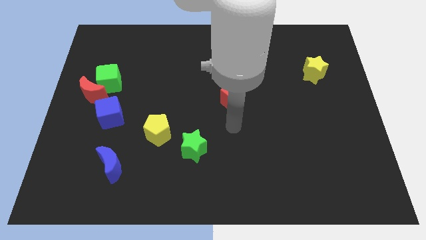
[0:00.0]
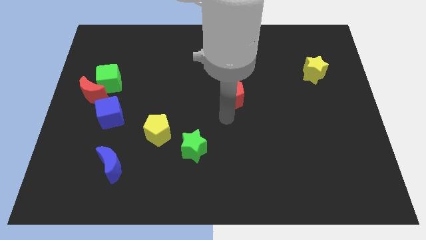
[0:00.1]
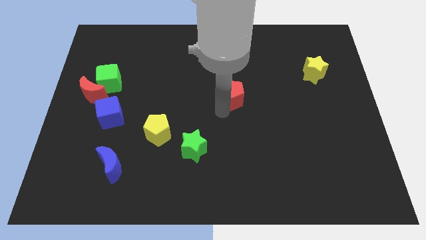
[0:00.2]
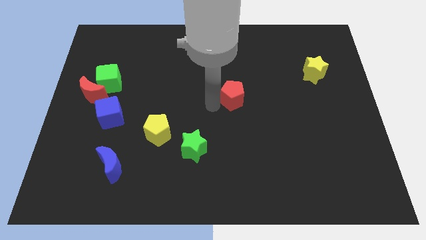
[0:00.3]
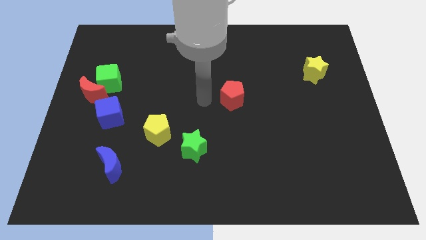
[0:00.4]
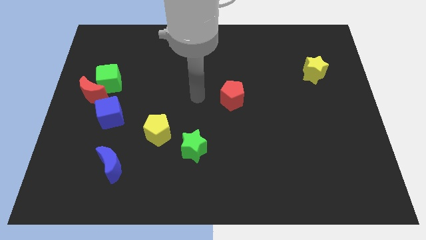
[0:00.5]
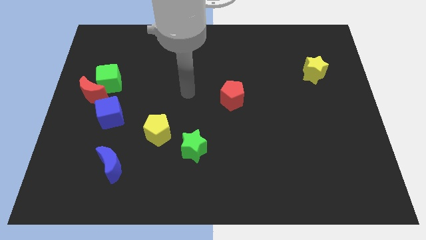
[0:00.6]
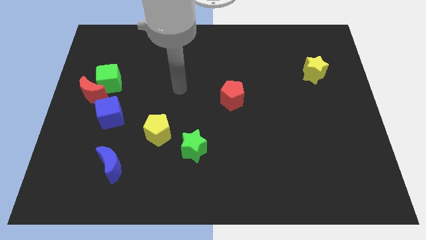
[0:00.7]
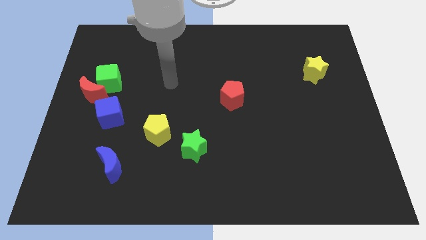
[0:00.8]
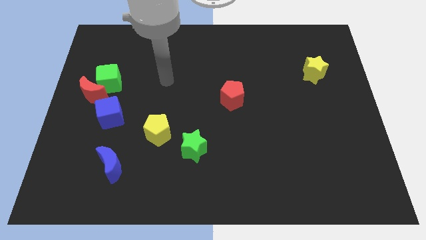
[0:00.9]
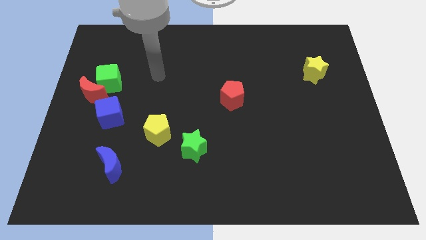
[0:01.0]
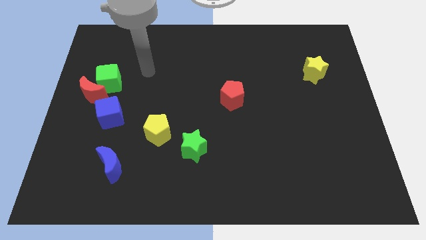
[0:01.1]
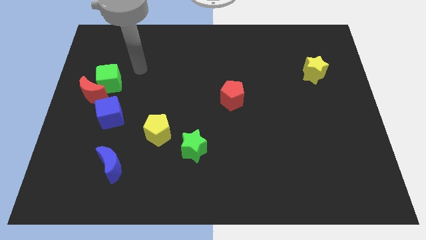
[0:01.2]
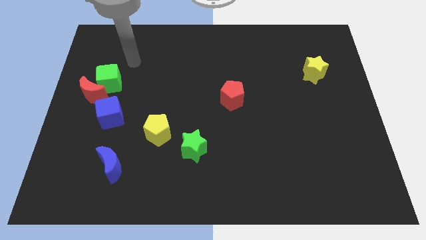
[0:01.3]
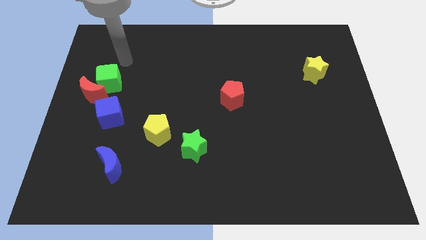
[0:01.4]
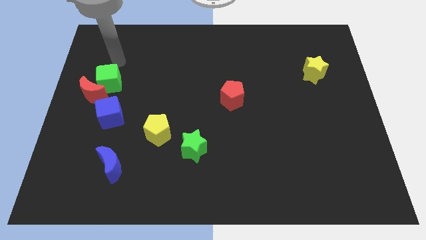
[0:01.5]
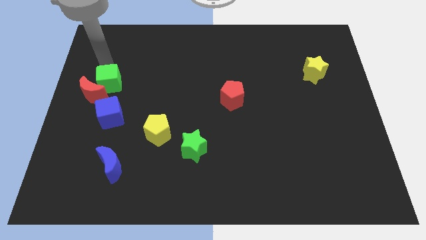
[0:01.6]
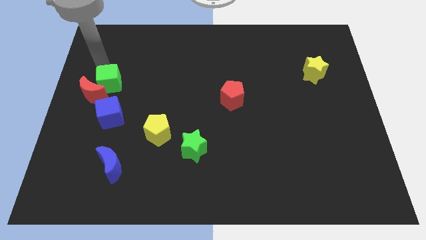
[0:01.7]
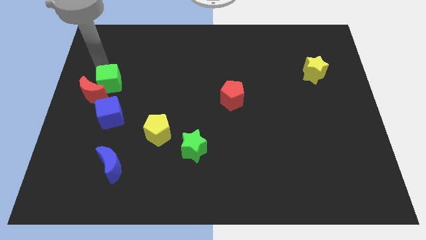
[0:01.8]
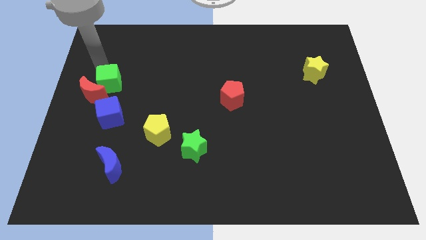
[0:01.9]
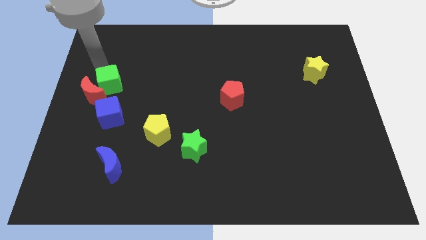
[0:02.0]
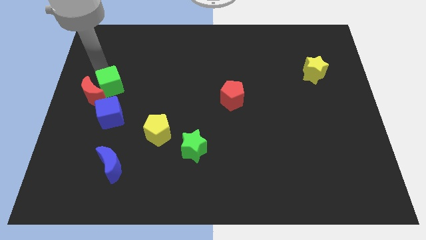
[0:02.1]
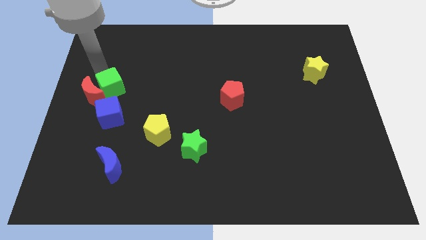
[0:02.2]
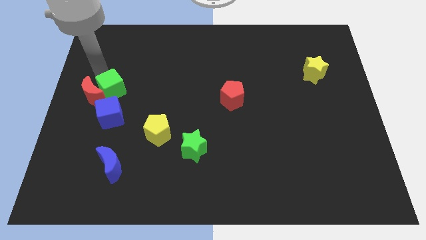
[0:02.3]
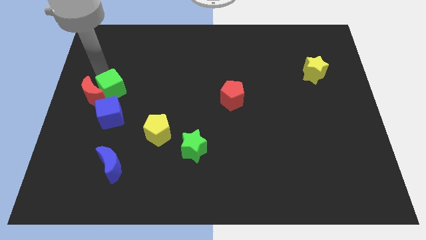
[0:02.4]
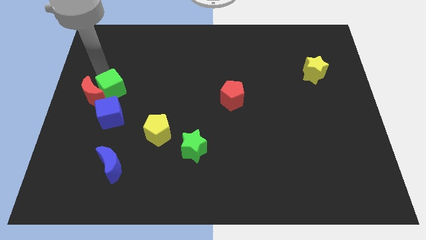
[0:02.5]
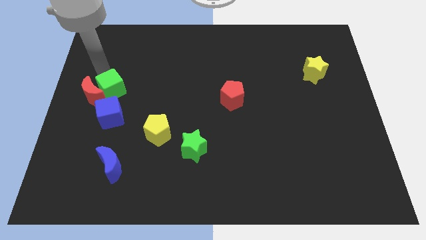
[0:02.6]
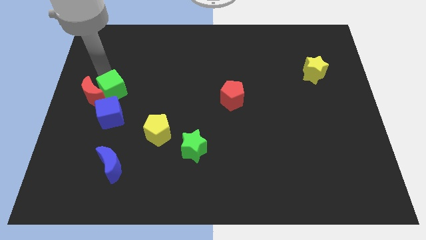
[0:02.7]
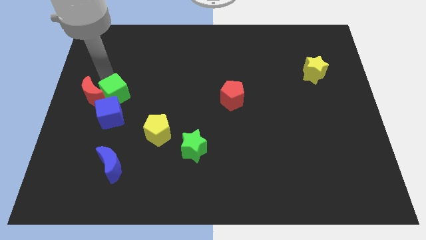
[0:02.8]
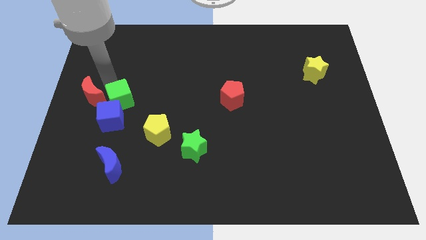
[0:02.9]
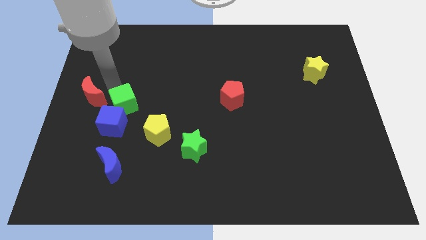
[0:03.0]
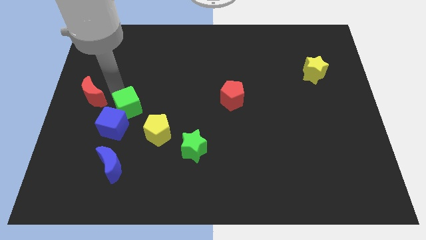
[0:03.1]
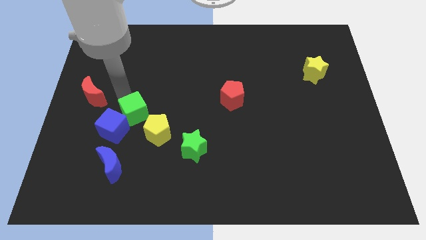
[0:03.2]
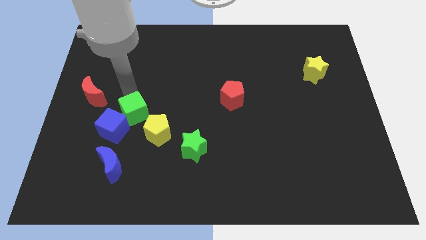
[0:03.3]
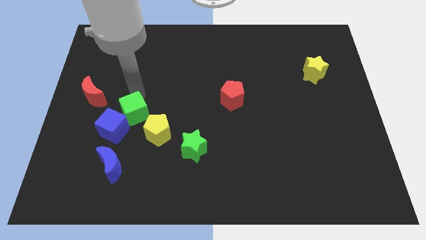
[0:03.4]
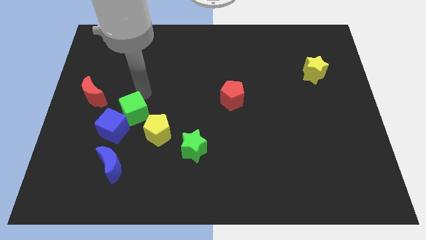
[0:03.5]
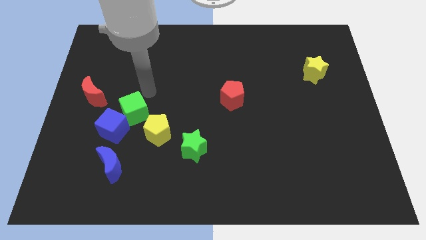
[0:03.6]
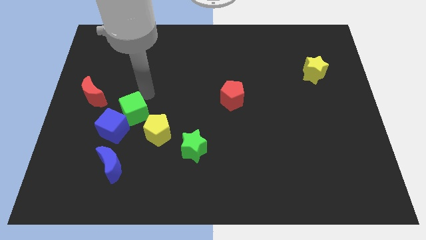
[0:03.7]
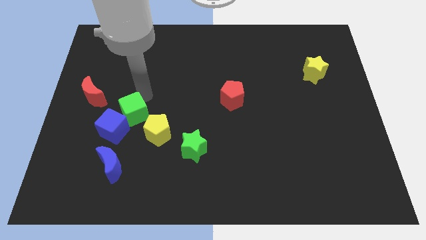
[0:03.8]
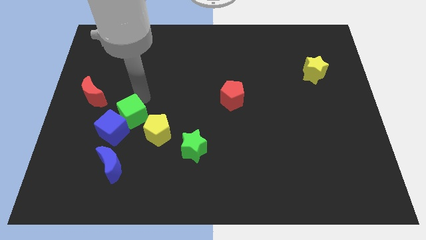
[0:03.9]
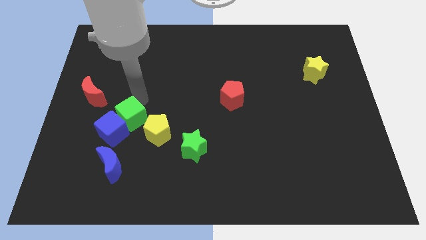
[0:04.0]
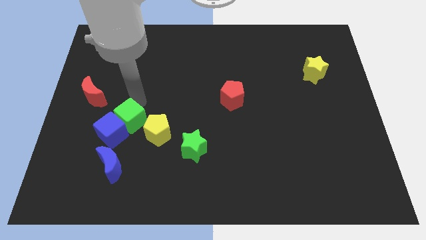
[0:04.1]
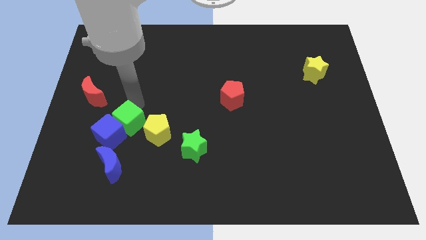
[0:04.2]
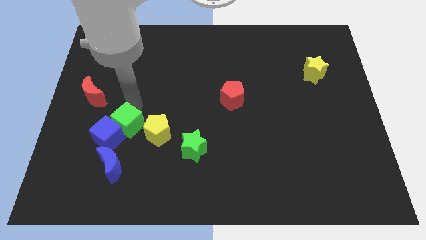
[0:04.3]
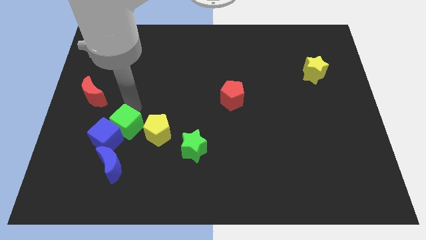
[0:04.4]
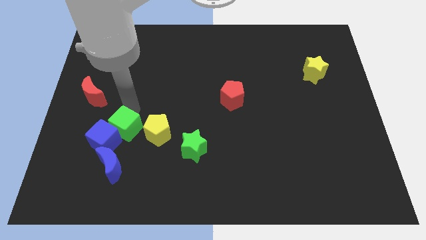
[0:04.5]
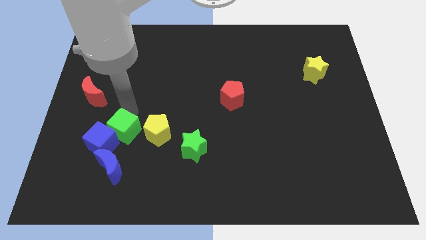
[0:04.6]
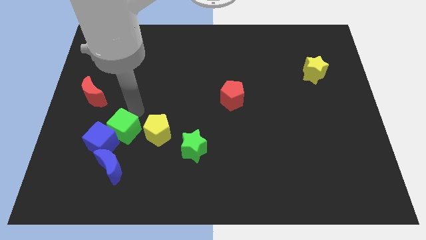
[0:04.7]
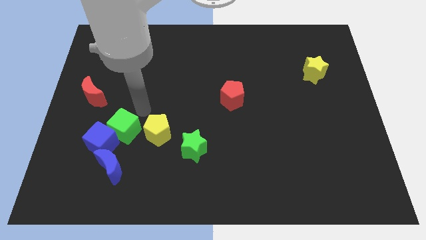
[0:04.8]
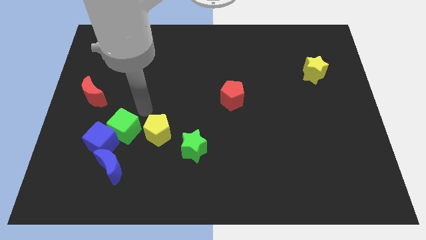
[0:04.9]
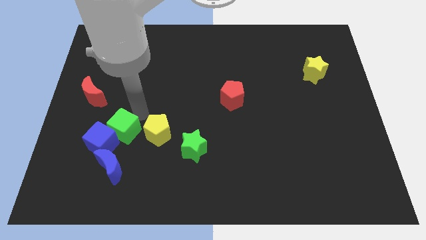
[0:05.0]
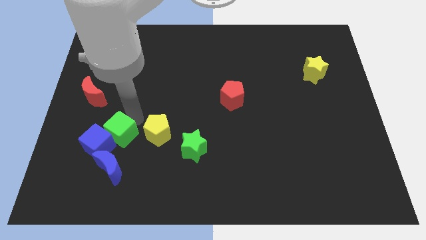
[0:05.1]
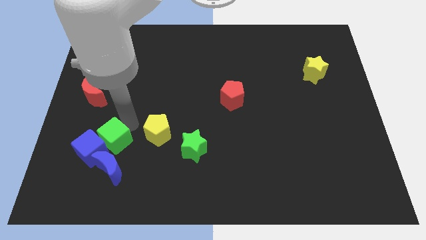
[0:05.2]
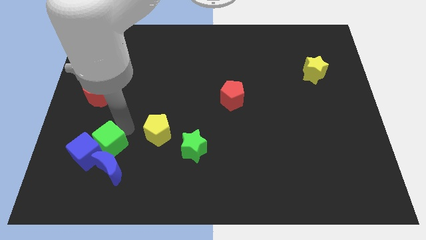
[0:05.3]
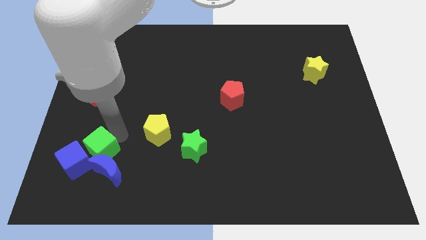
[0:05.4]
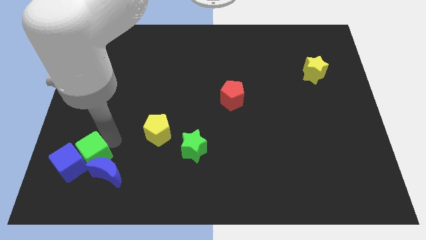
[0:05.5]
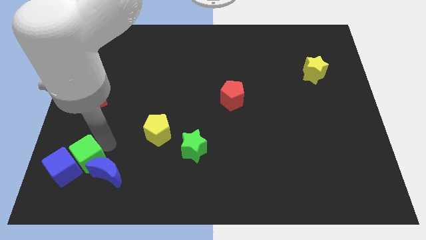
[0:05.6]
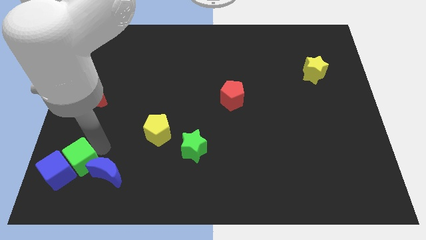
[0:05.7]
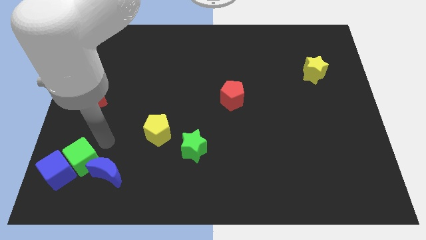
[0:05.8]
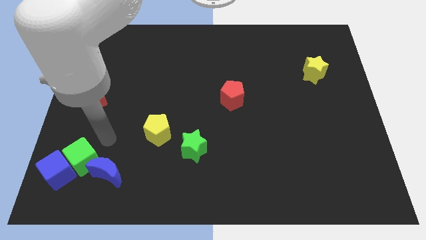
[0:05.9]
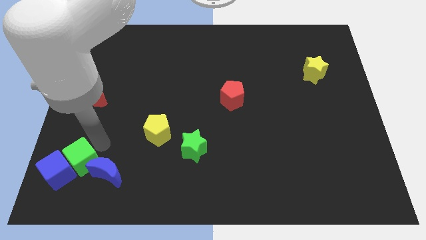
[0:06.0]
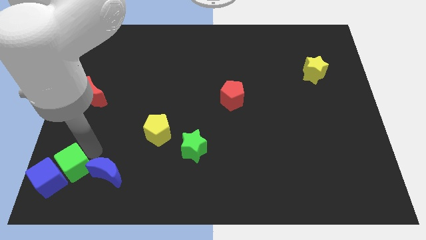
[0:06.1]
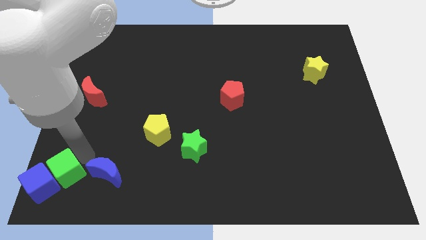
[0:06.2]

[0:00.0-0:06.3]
slide the green cube to the lower left corner
